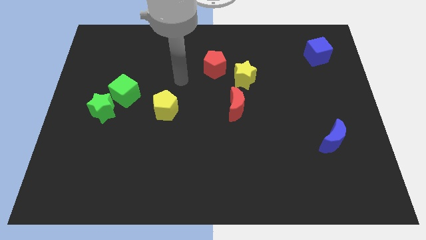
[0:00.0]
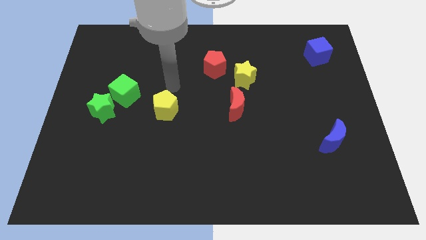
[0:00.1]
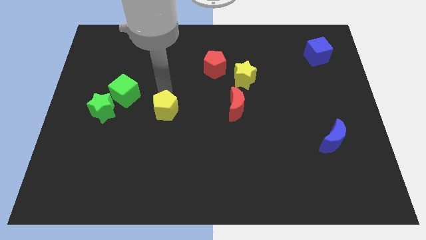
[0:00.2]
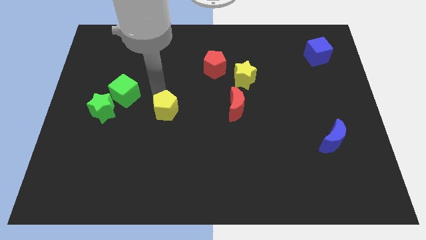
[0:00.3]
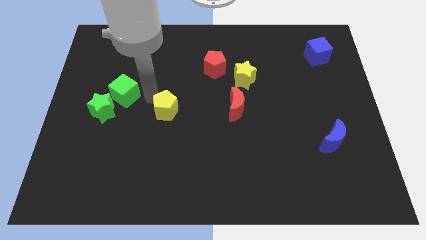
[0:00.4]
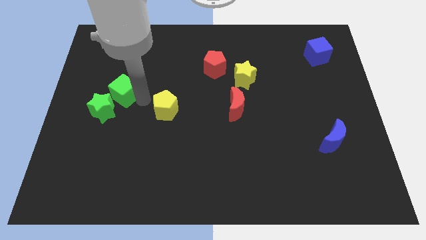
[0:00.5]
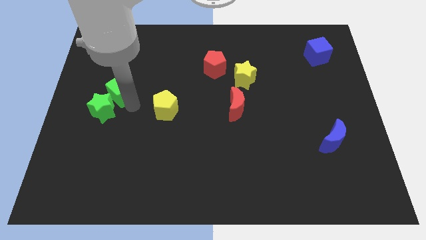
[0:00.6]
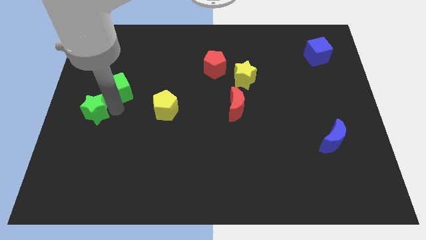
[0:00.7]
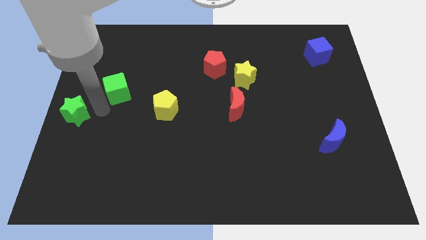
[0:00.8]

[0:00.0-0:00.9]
pull the green cube apart from the green star

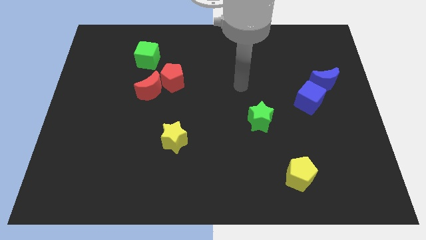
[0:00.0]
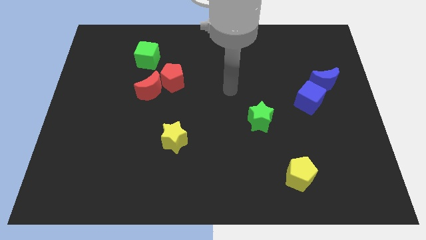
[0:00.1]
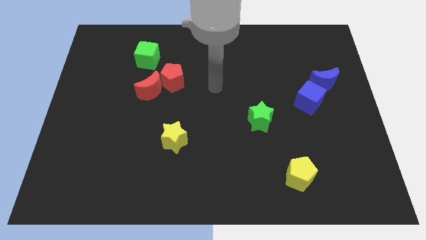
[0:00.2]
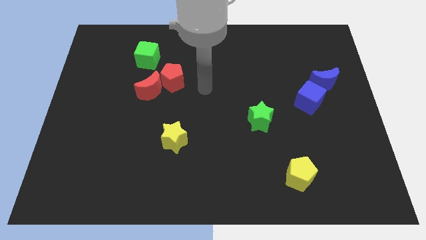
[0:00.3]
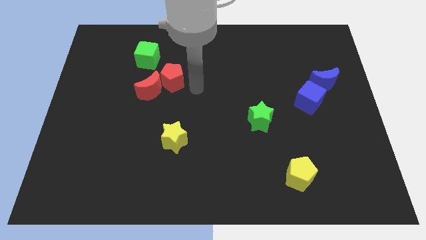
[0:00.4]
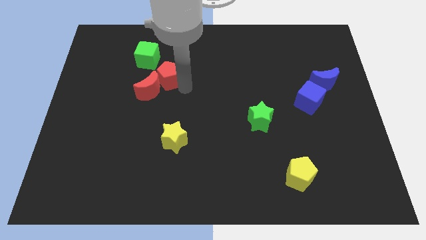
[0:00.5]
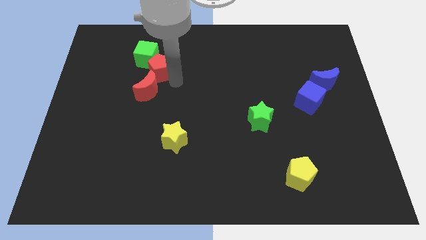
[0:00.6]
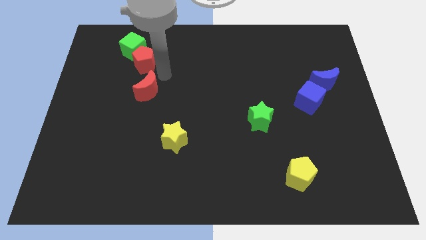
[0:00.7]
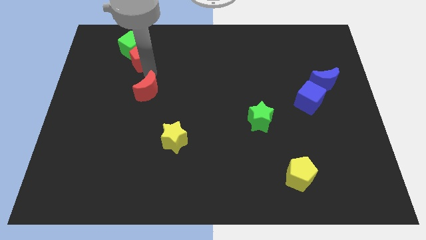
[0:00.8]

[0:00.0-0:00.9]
move the red moon away from the red pentagon

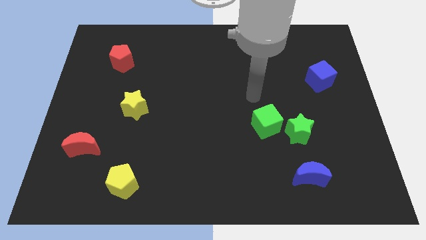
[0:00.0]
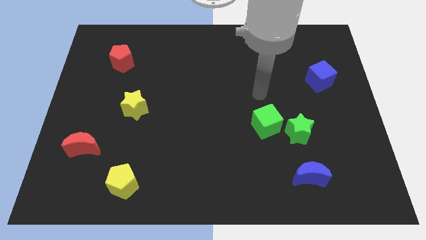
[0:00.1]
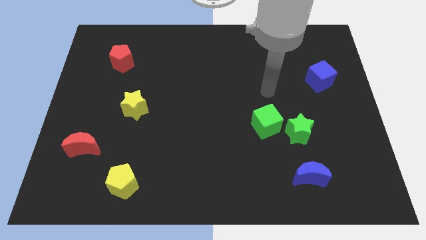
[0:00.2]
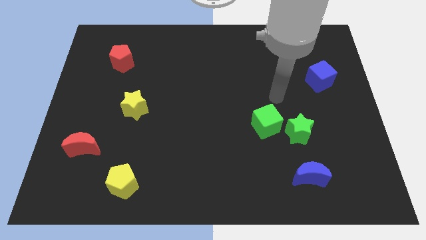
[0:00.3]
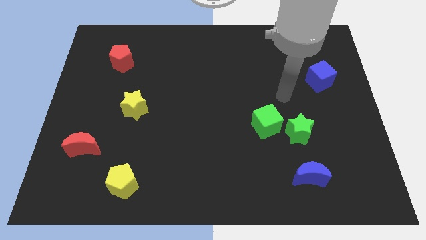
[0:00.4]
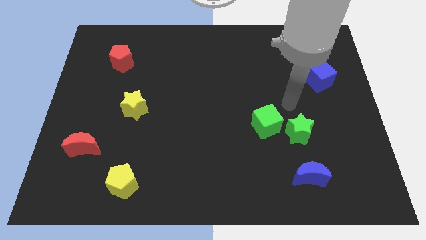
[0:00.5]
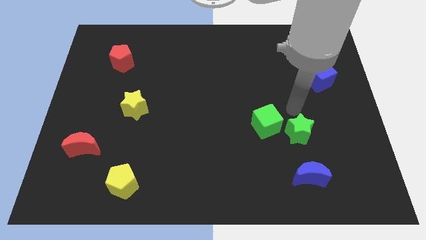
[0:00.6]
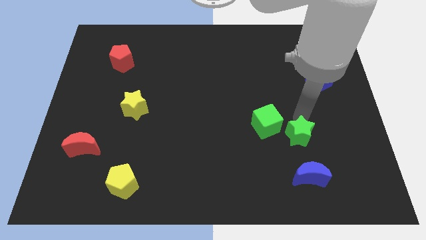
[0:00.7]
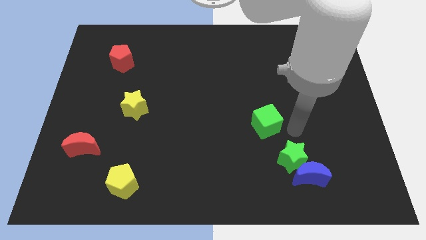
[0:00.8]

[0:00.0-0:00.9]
separate the green cube from the green star

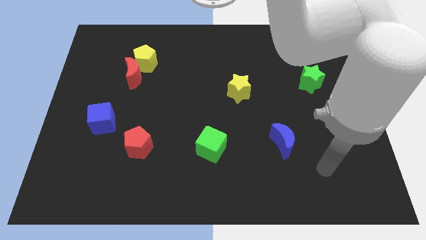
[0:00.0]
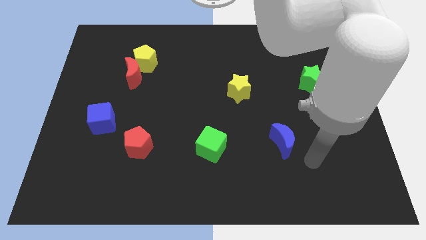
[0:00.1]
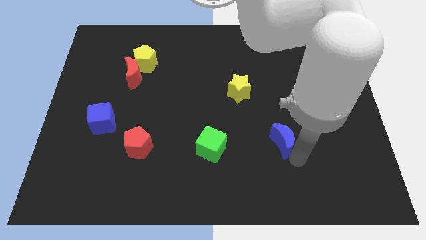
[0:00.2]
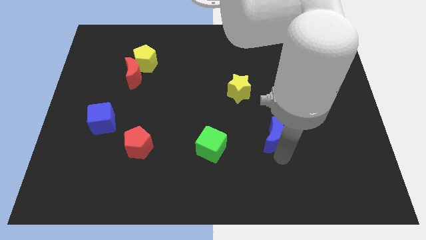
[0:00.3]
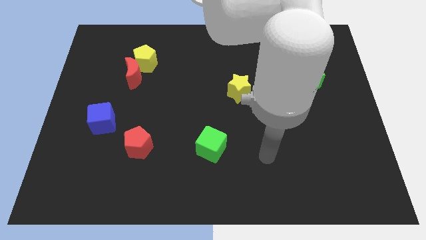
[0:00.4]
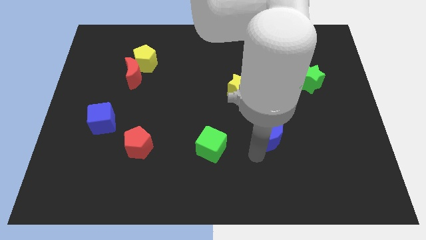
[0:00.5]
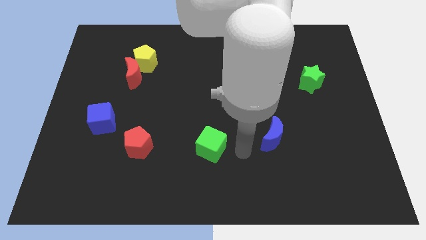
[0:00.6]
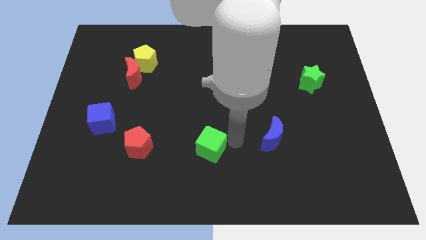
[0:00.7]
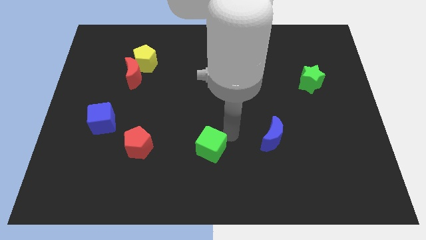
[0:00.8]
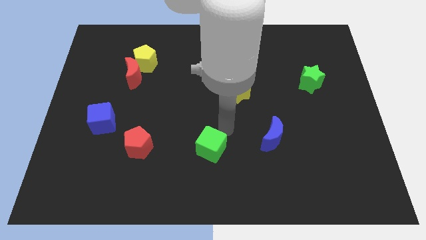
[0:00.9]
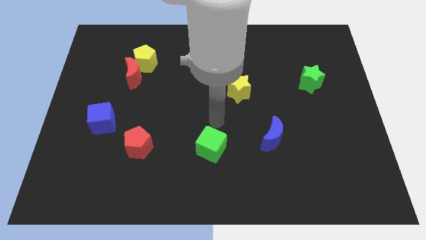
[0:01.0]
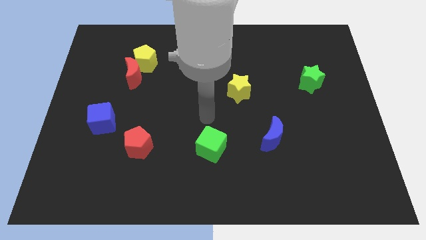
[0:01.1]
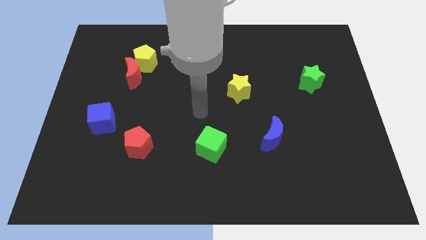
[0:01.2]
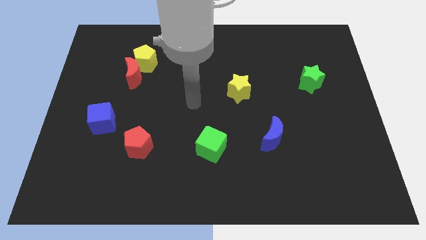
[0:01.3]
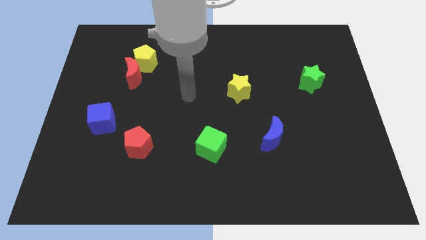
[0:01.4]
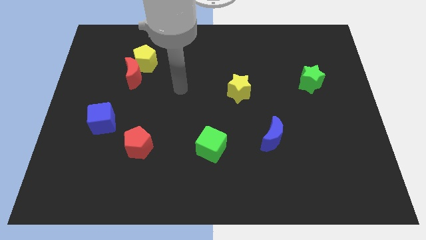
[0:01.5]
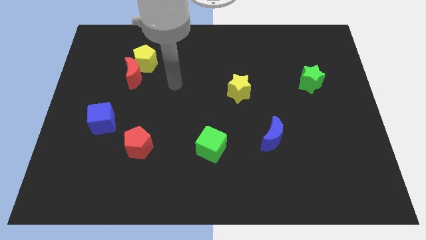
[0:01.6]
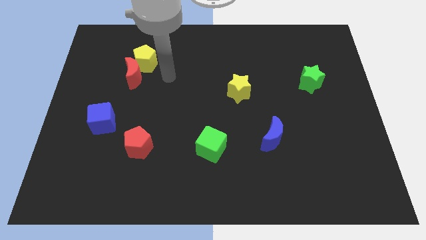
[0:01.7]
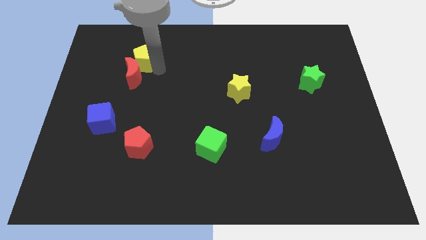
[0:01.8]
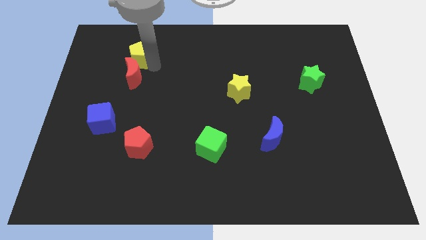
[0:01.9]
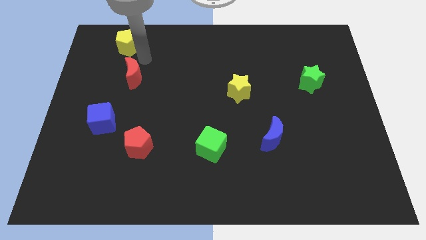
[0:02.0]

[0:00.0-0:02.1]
pull the red moon apart from the yellow pentagon

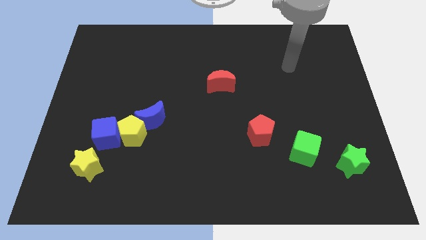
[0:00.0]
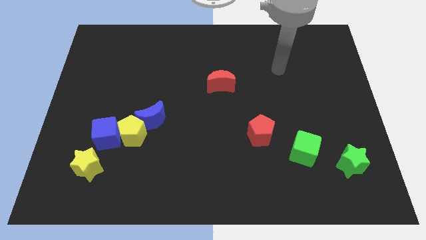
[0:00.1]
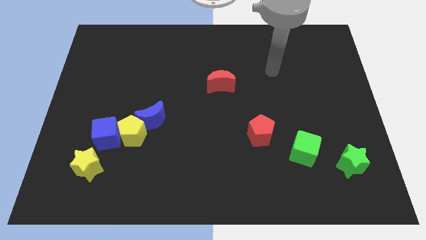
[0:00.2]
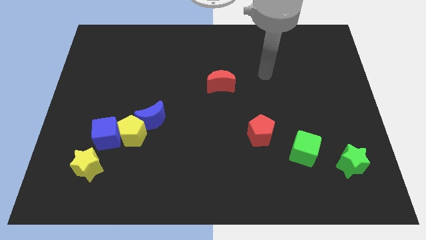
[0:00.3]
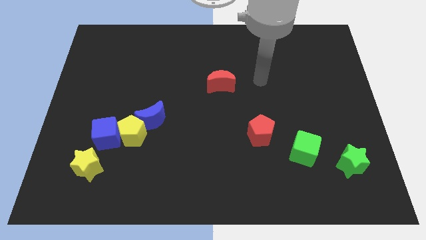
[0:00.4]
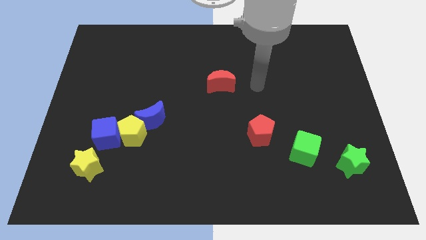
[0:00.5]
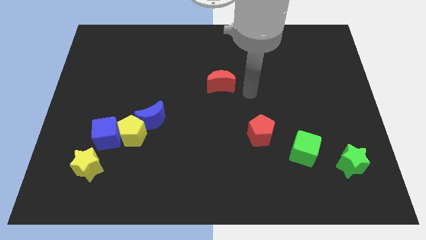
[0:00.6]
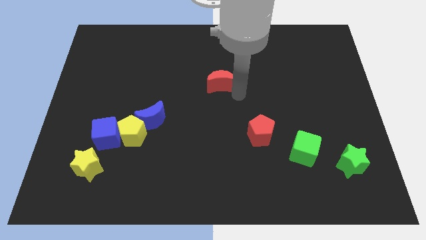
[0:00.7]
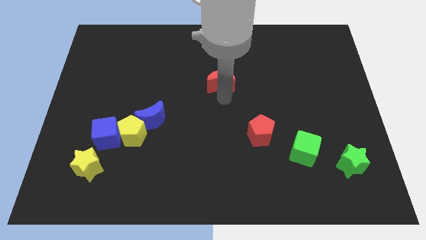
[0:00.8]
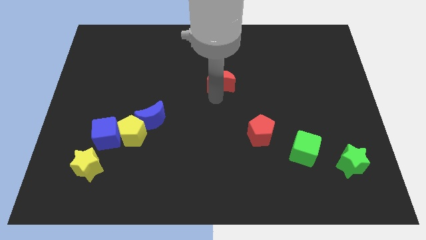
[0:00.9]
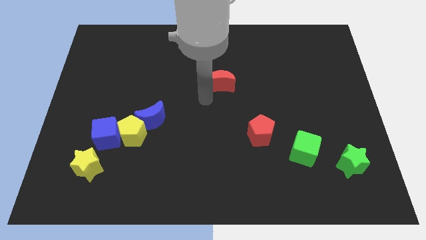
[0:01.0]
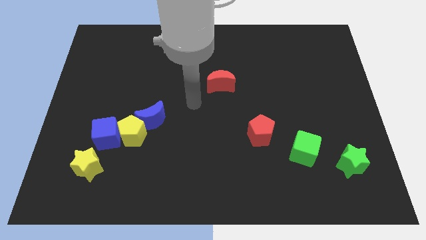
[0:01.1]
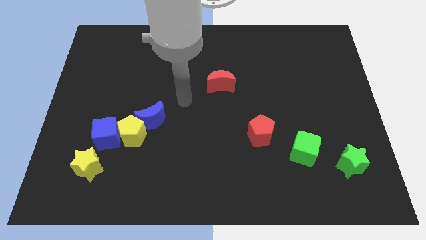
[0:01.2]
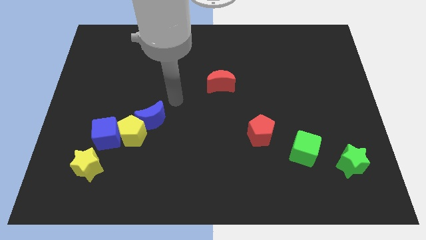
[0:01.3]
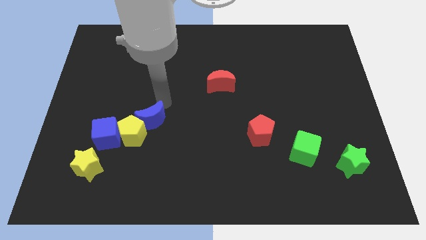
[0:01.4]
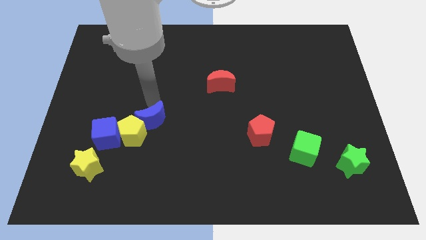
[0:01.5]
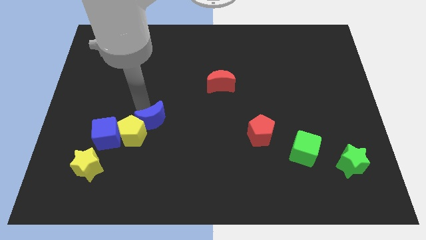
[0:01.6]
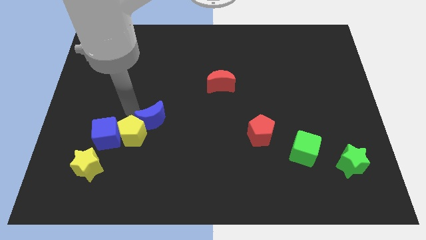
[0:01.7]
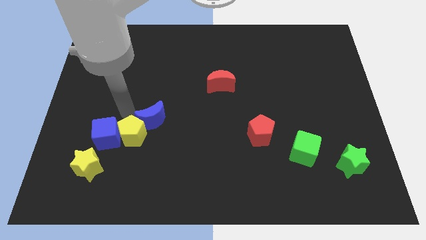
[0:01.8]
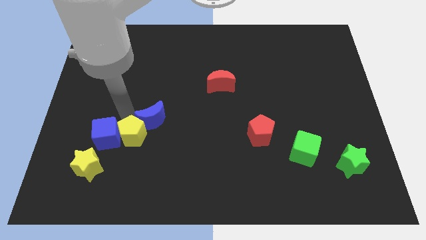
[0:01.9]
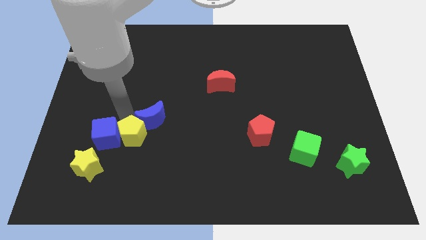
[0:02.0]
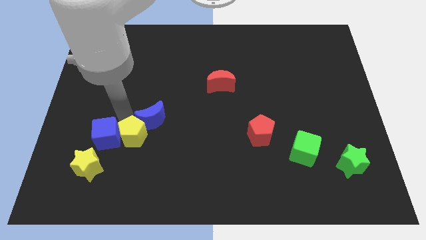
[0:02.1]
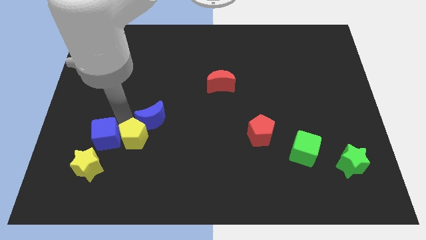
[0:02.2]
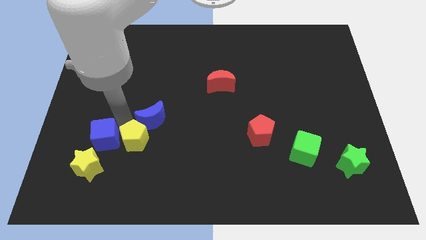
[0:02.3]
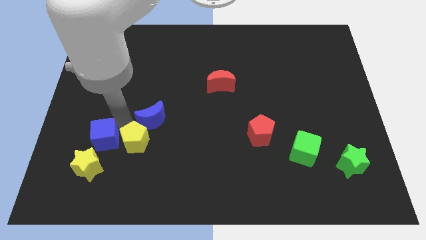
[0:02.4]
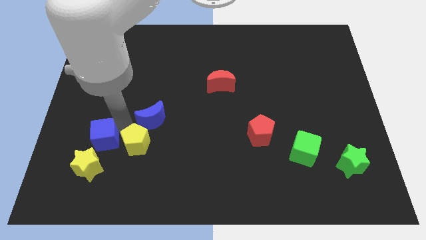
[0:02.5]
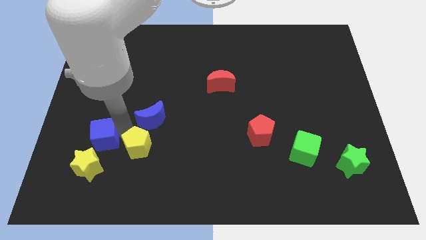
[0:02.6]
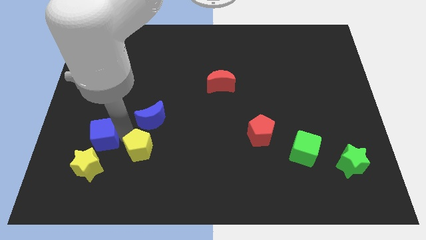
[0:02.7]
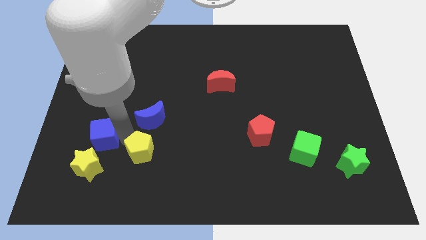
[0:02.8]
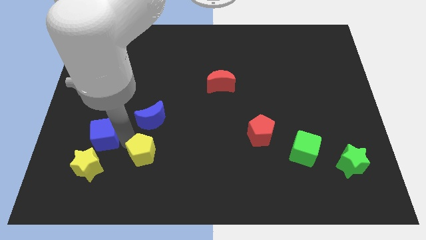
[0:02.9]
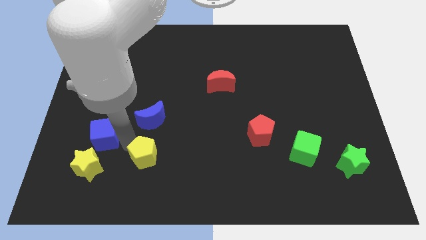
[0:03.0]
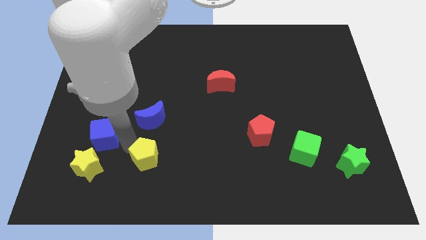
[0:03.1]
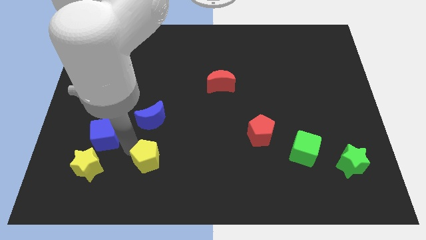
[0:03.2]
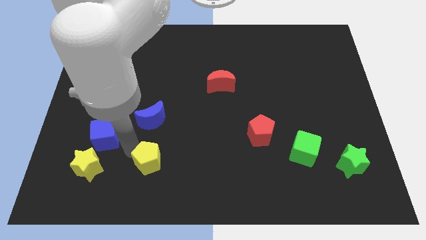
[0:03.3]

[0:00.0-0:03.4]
pull the yellow pentagon apart from the blue cube and blue moon

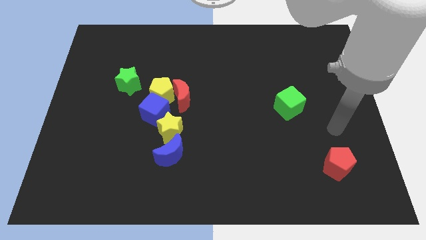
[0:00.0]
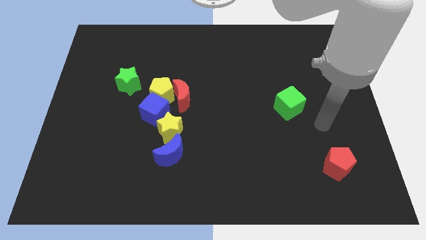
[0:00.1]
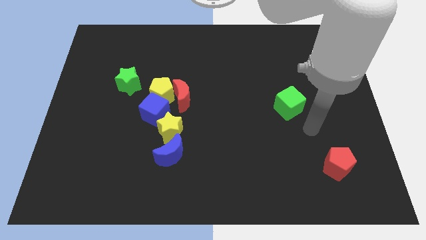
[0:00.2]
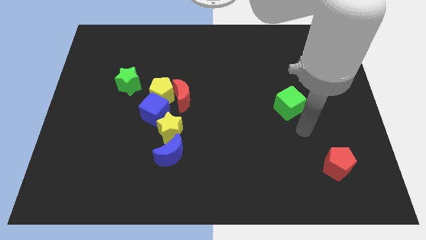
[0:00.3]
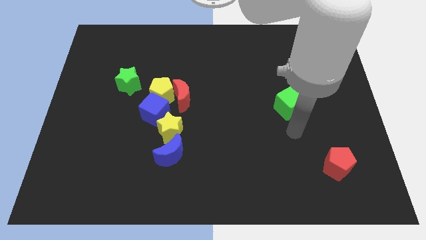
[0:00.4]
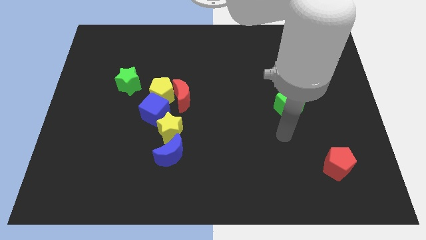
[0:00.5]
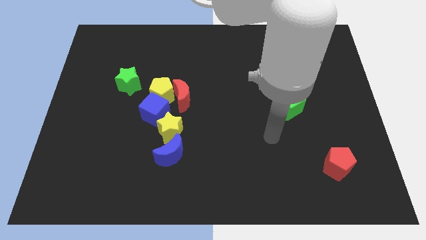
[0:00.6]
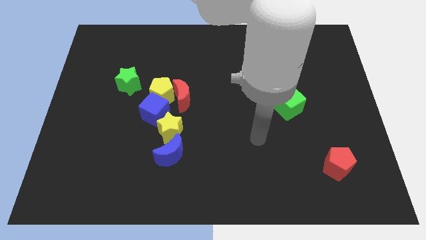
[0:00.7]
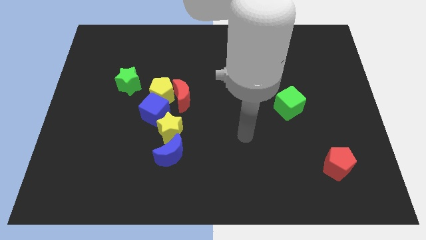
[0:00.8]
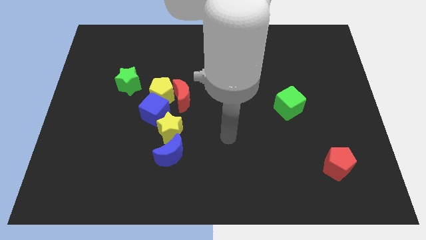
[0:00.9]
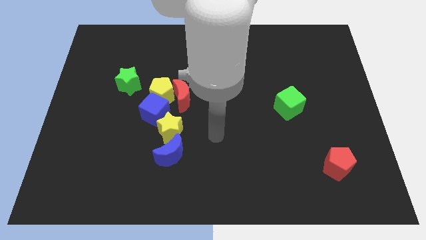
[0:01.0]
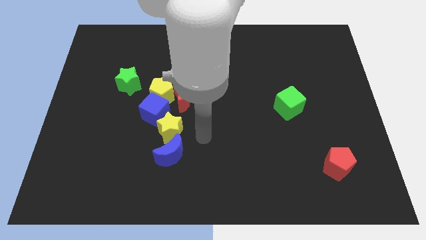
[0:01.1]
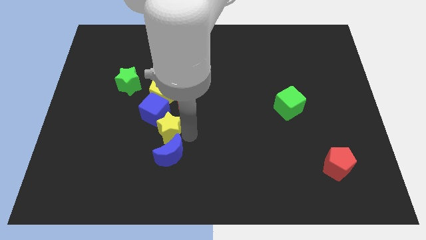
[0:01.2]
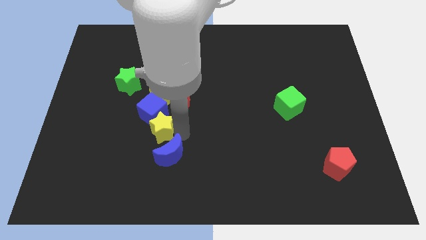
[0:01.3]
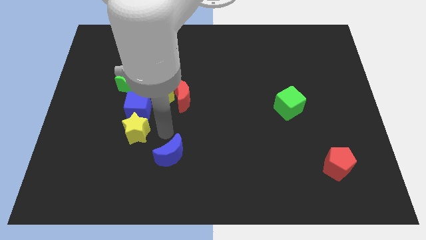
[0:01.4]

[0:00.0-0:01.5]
move the blue moon away from the yellow star
